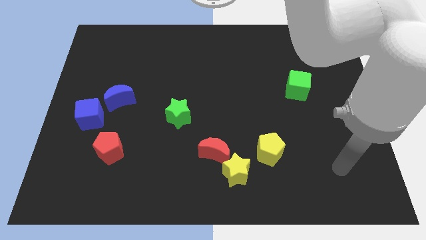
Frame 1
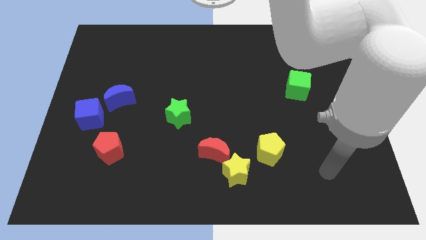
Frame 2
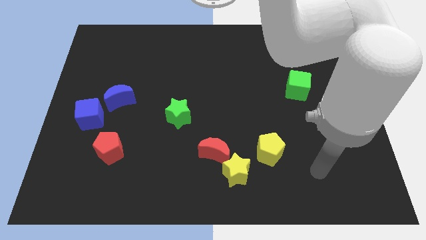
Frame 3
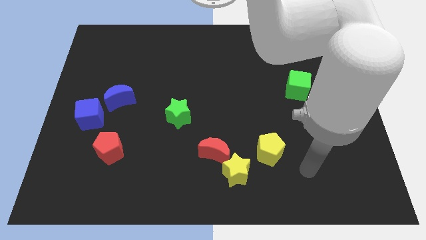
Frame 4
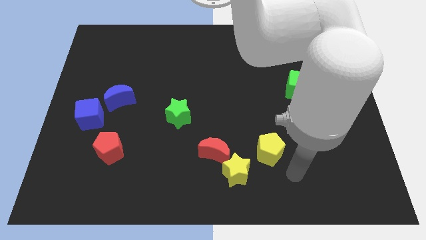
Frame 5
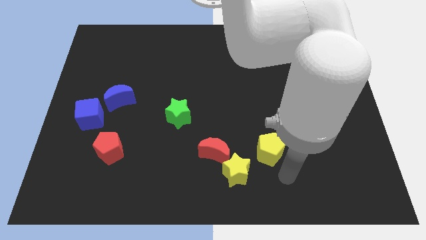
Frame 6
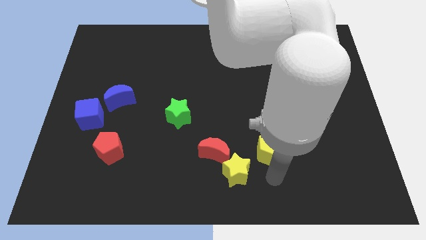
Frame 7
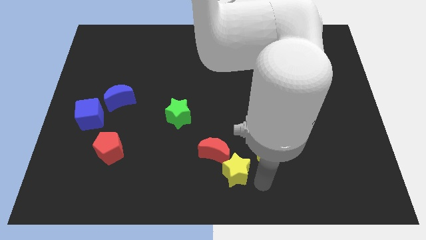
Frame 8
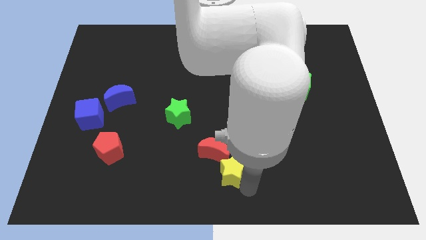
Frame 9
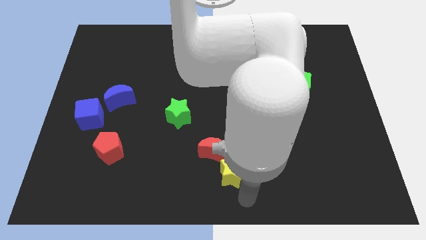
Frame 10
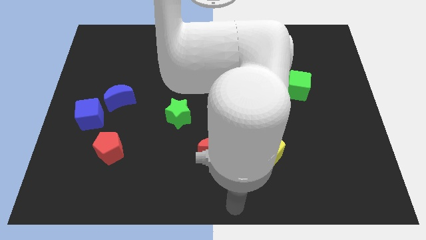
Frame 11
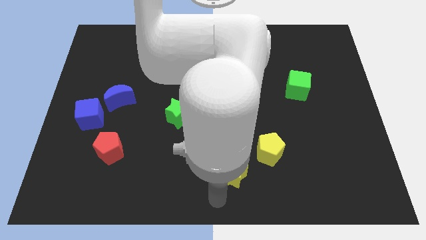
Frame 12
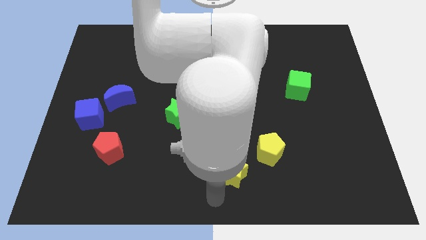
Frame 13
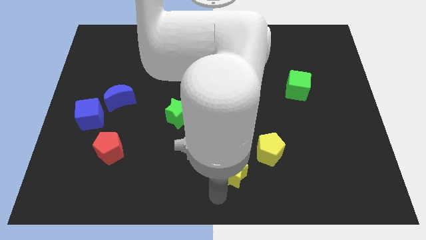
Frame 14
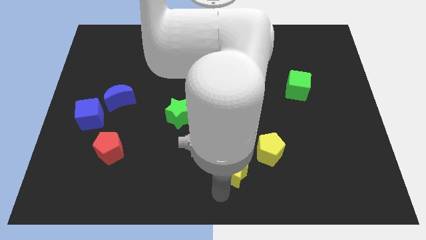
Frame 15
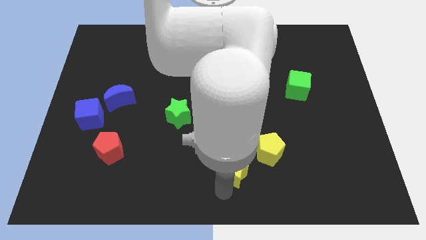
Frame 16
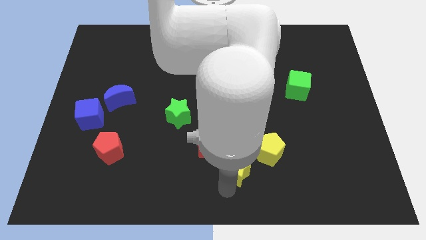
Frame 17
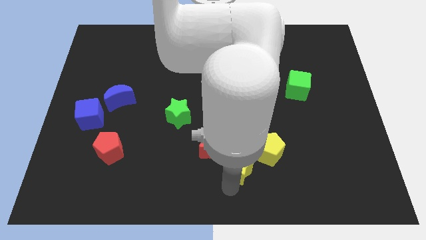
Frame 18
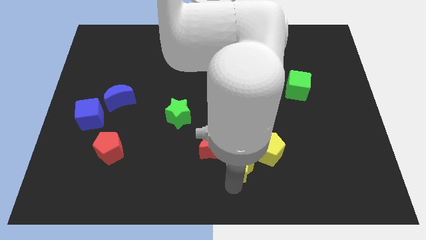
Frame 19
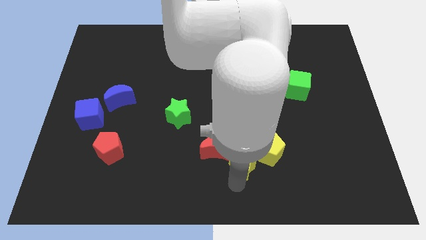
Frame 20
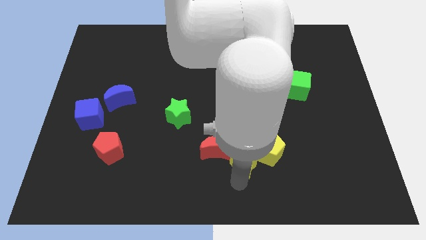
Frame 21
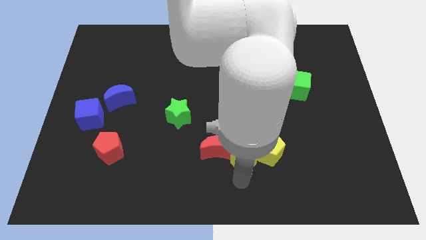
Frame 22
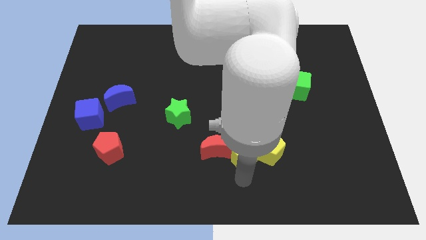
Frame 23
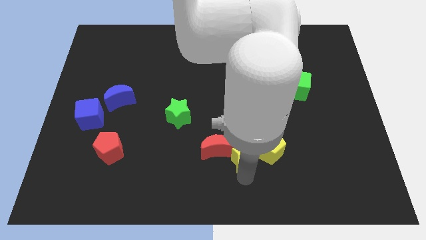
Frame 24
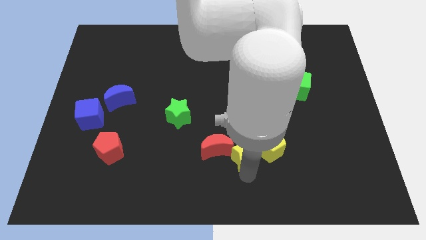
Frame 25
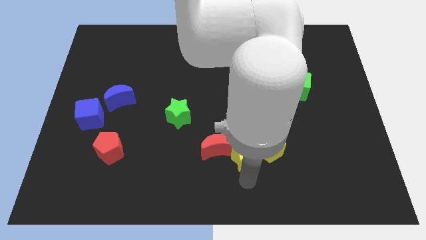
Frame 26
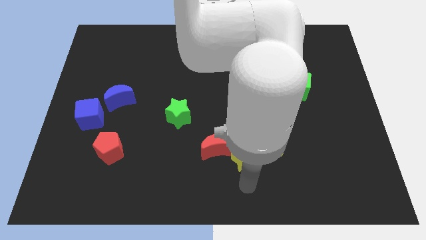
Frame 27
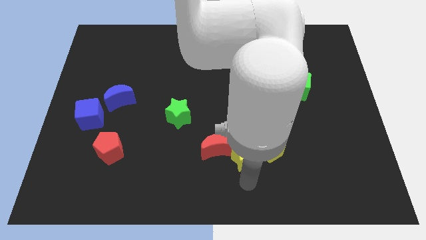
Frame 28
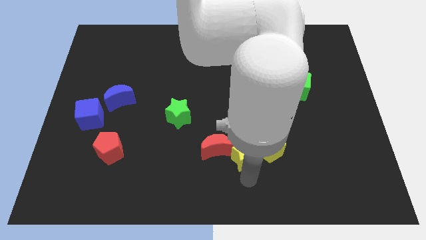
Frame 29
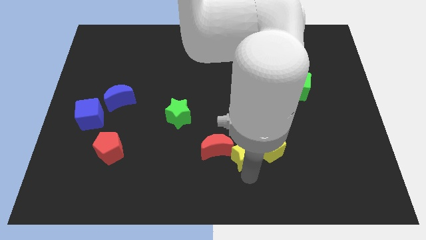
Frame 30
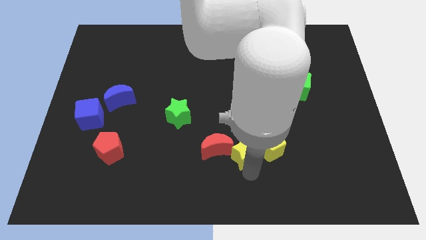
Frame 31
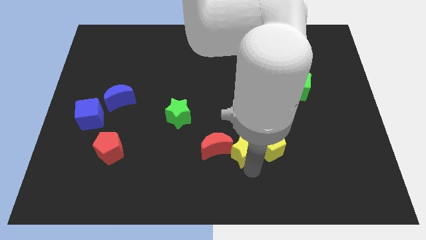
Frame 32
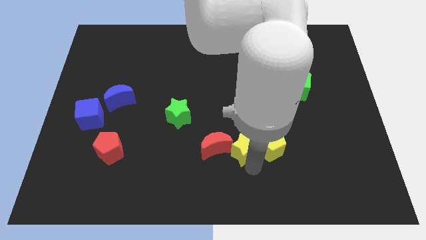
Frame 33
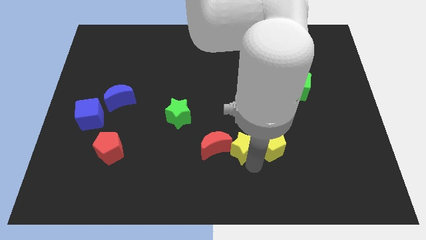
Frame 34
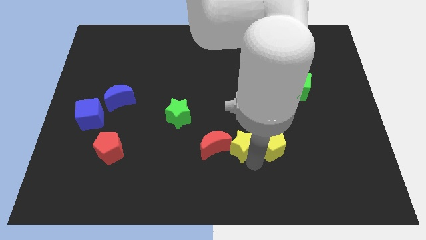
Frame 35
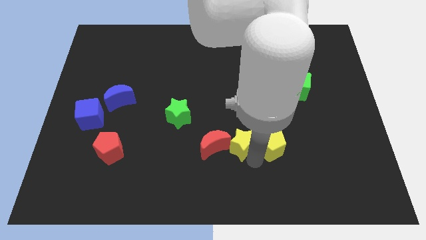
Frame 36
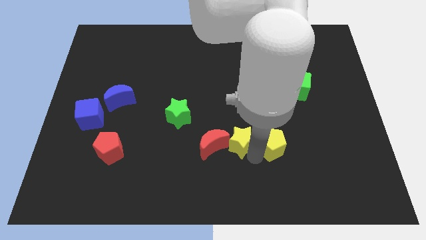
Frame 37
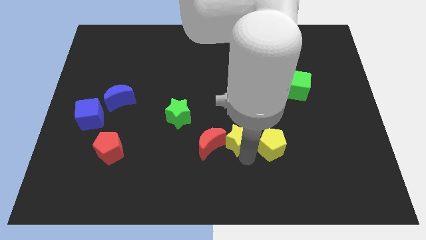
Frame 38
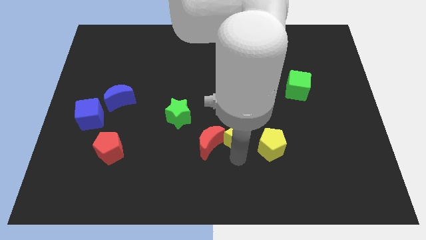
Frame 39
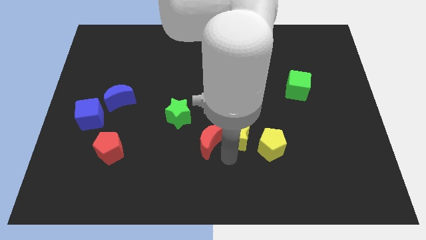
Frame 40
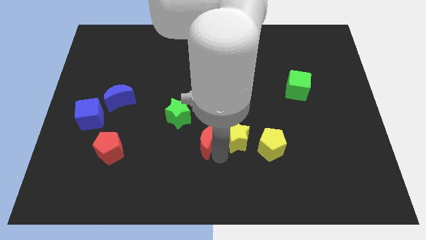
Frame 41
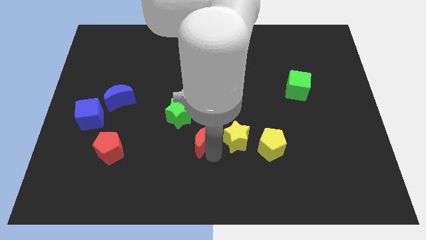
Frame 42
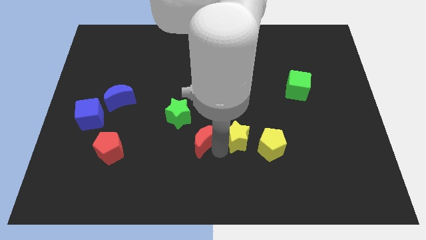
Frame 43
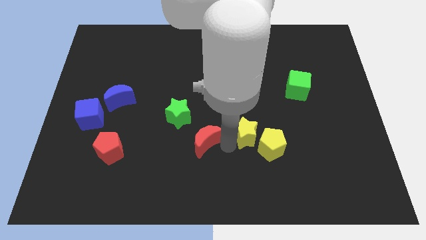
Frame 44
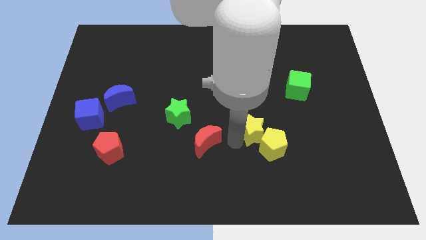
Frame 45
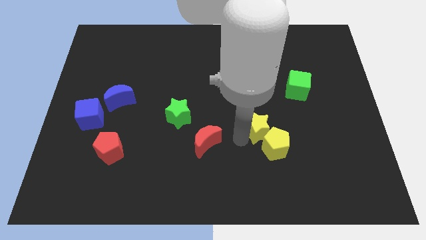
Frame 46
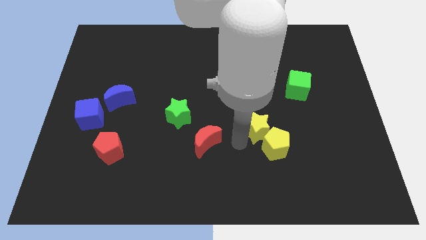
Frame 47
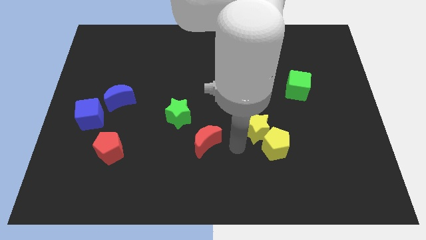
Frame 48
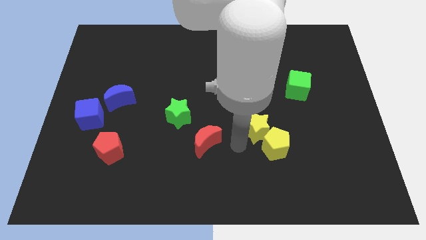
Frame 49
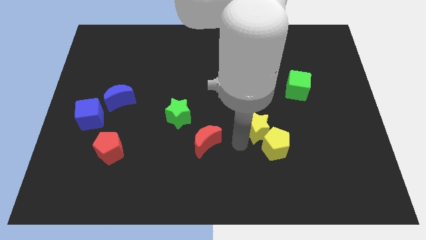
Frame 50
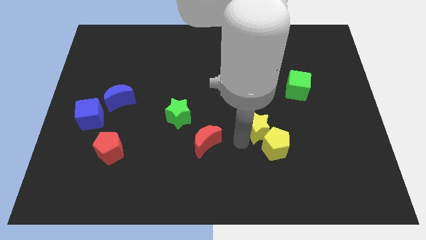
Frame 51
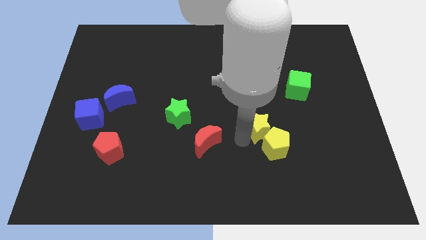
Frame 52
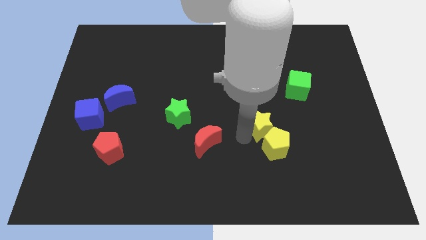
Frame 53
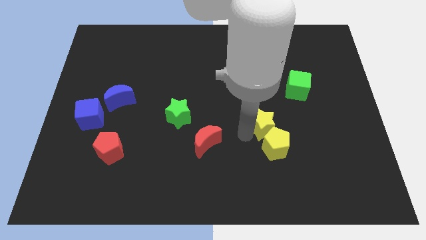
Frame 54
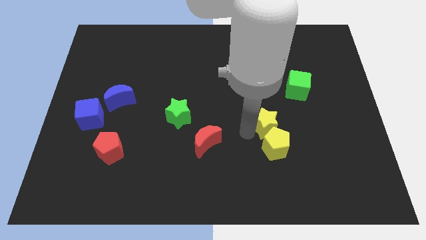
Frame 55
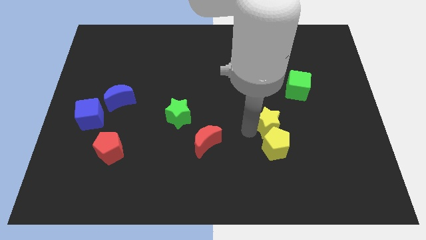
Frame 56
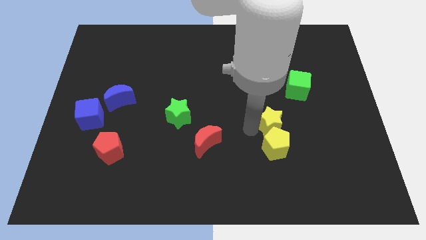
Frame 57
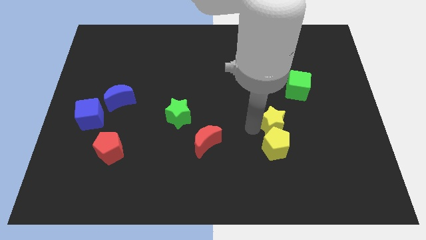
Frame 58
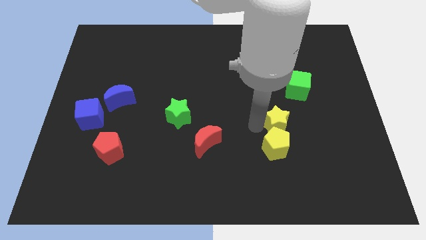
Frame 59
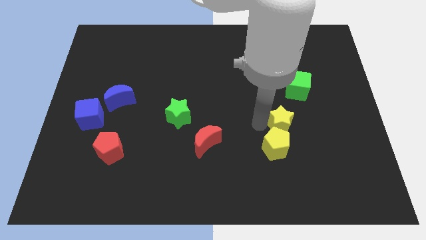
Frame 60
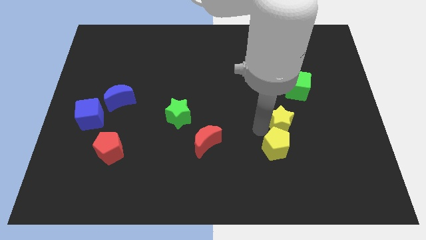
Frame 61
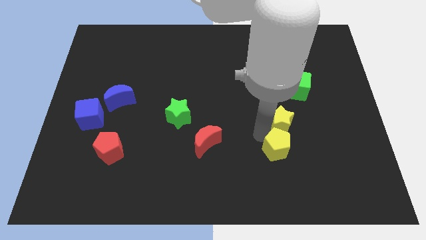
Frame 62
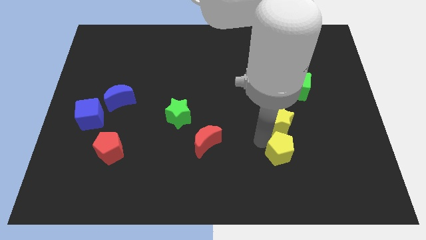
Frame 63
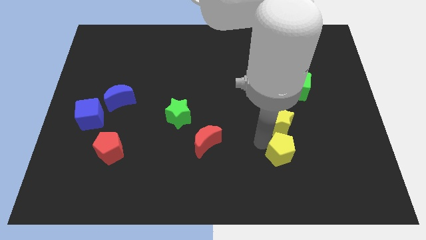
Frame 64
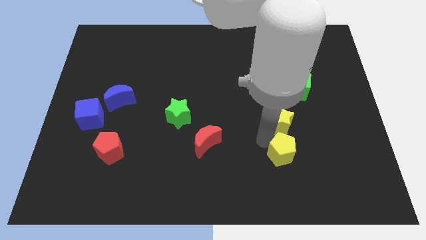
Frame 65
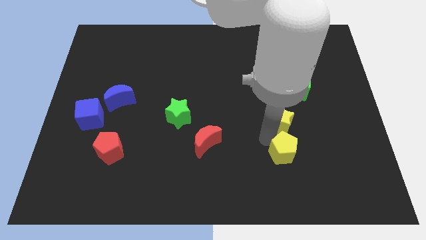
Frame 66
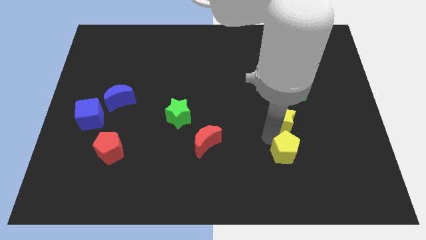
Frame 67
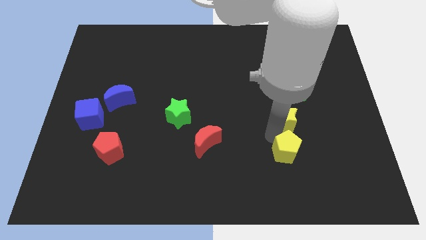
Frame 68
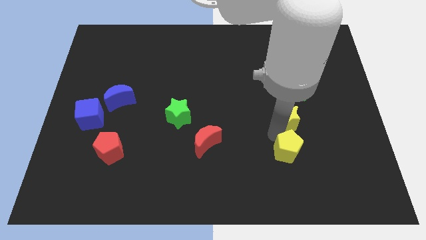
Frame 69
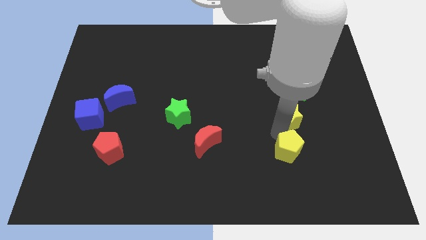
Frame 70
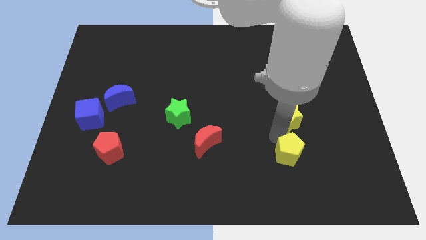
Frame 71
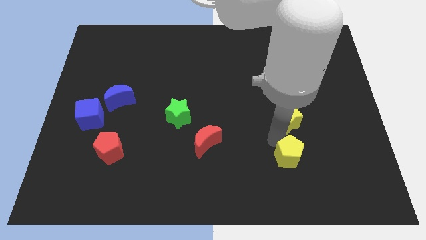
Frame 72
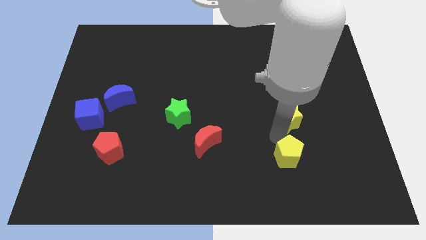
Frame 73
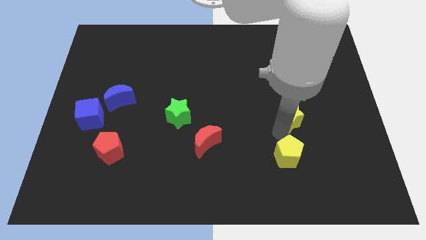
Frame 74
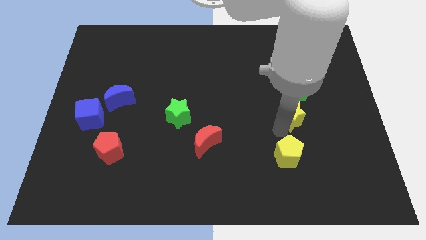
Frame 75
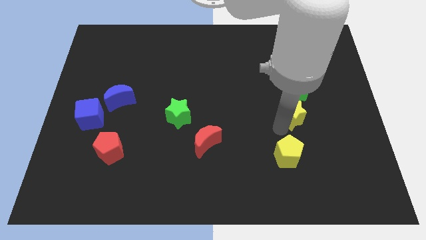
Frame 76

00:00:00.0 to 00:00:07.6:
slide the yellow star upwards and then to the right

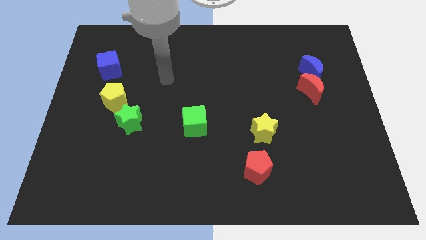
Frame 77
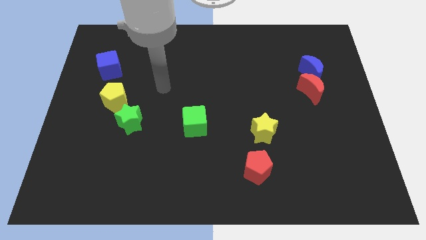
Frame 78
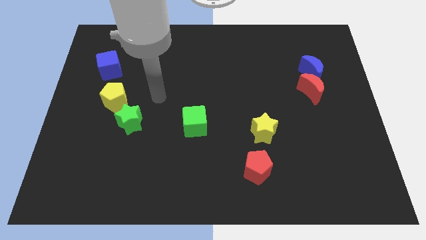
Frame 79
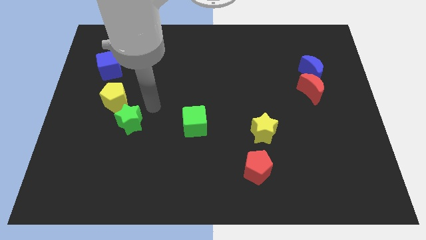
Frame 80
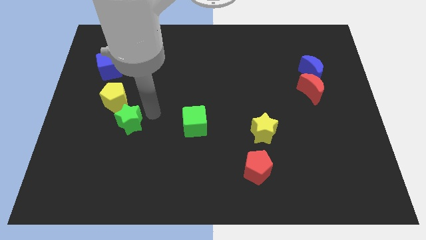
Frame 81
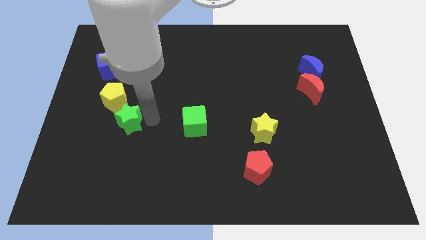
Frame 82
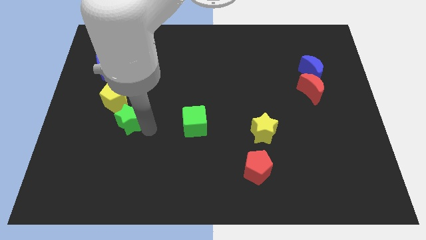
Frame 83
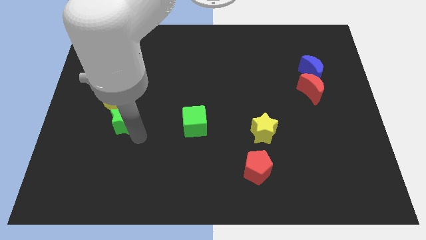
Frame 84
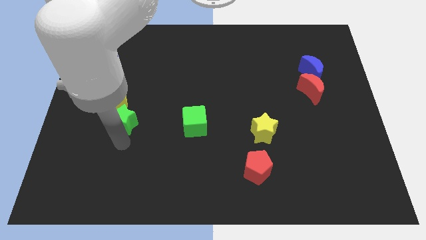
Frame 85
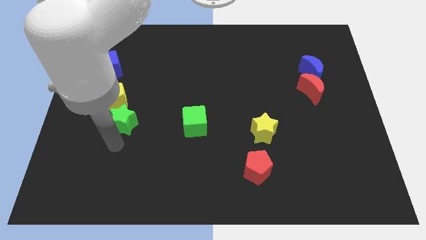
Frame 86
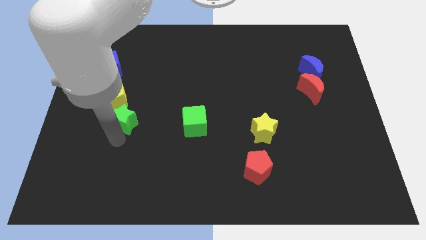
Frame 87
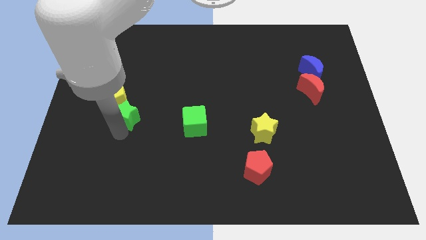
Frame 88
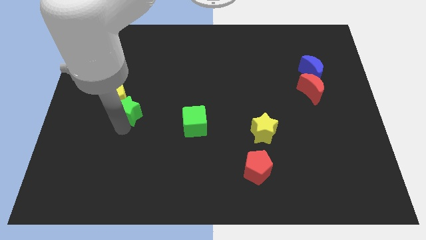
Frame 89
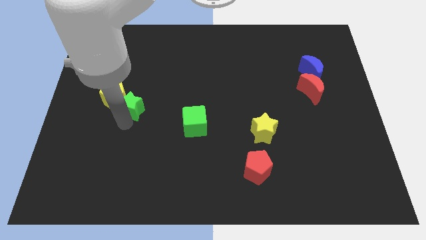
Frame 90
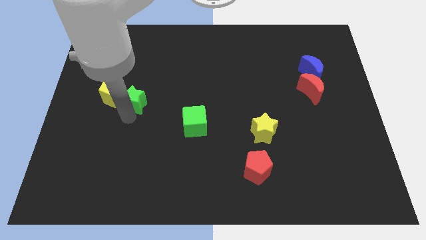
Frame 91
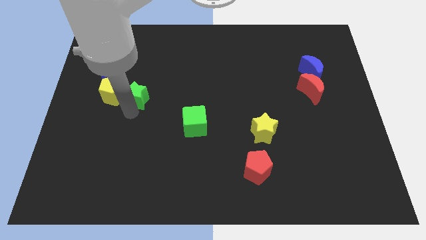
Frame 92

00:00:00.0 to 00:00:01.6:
slightly push the green star upwards
